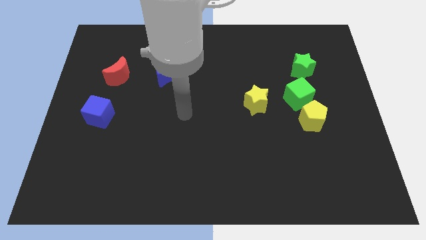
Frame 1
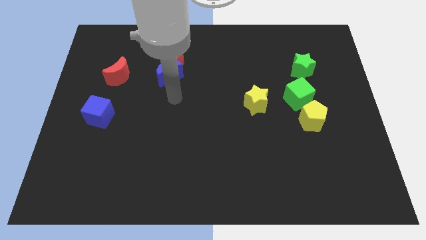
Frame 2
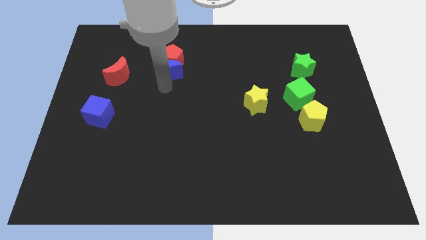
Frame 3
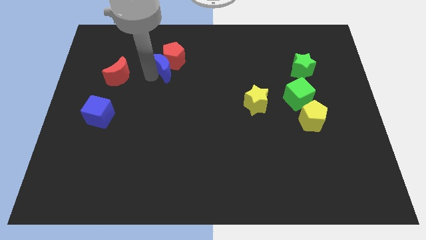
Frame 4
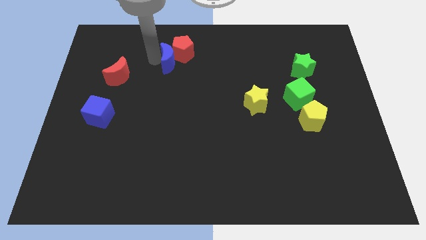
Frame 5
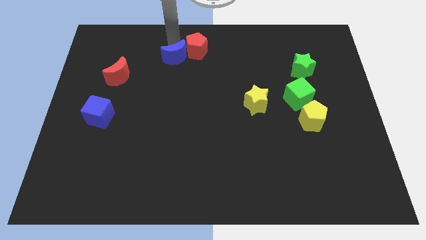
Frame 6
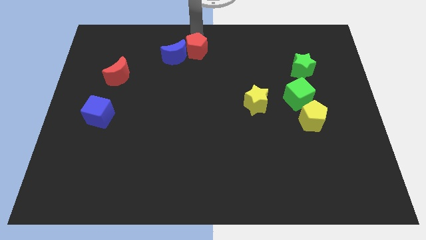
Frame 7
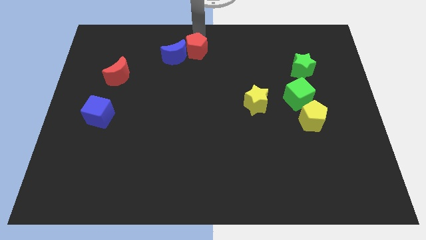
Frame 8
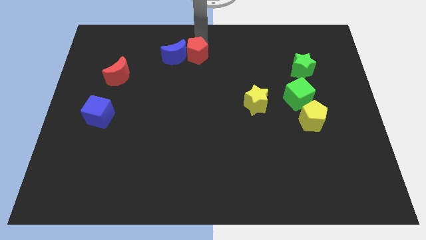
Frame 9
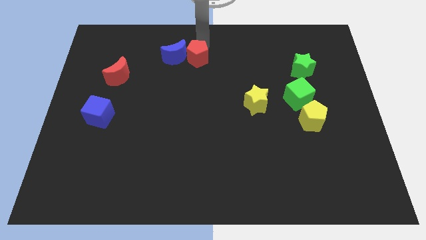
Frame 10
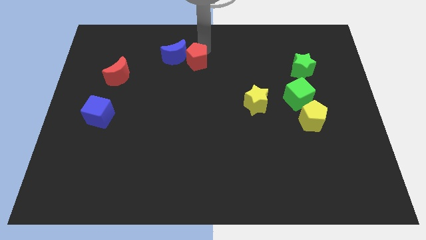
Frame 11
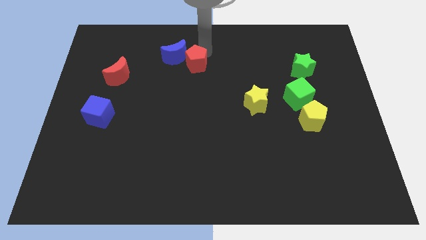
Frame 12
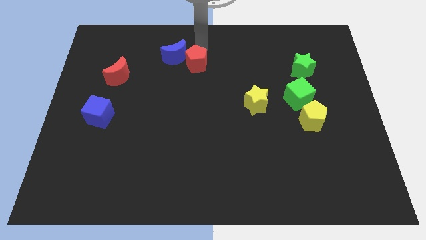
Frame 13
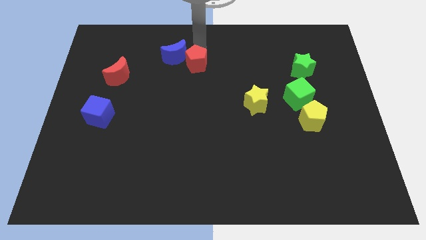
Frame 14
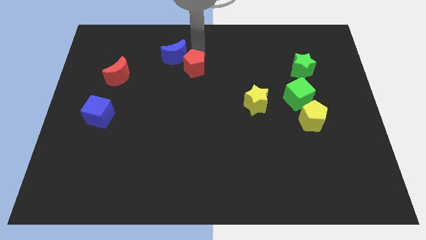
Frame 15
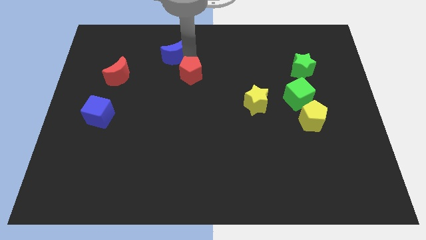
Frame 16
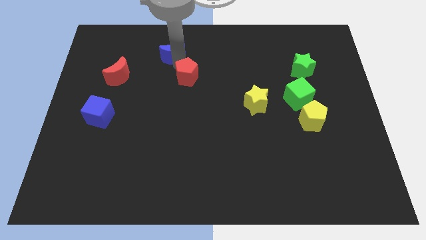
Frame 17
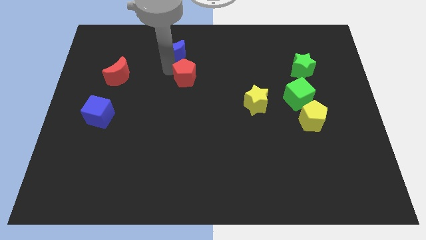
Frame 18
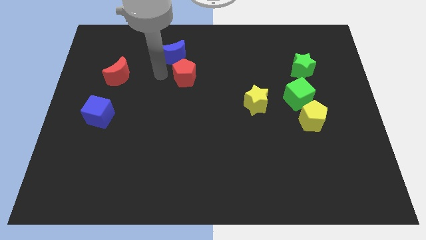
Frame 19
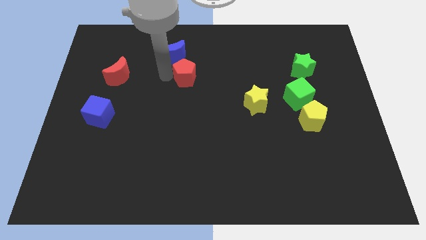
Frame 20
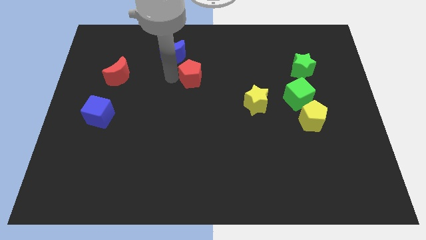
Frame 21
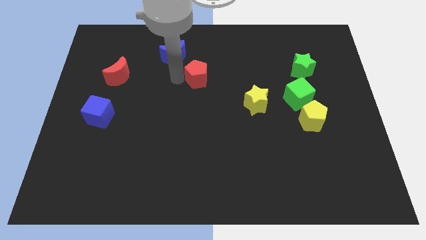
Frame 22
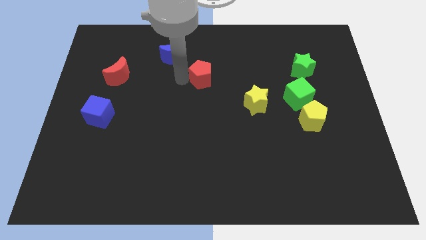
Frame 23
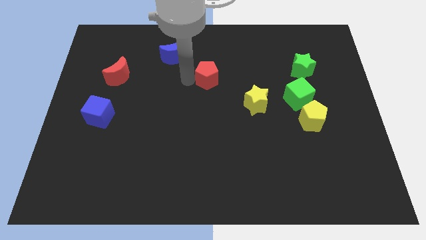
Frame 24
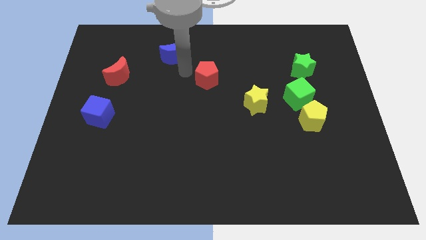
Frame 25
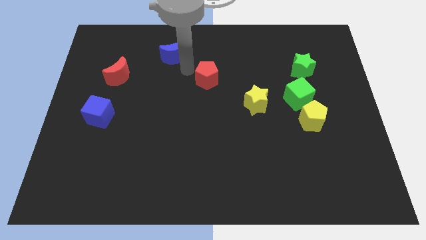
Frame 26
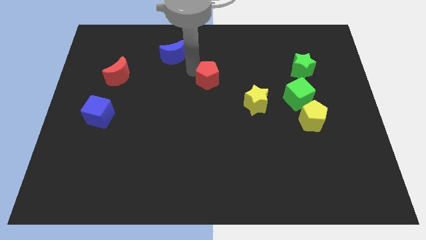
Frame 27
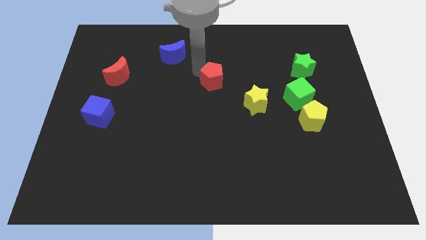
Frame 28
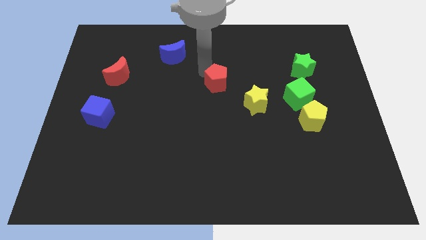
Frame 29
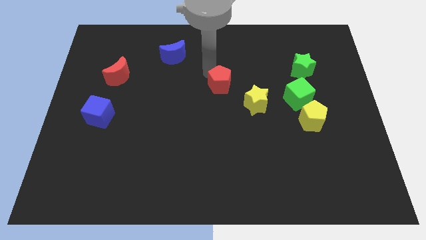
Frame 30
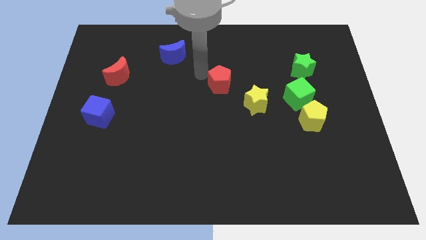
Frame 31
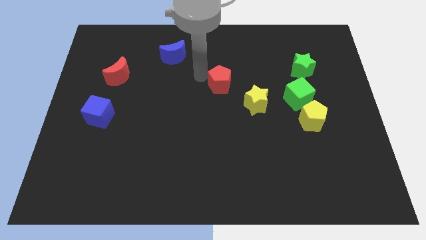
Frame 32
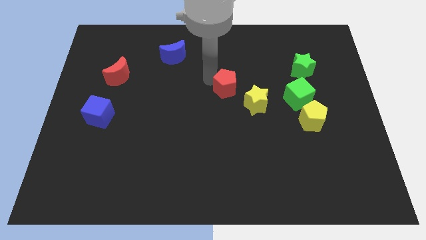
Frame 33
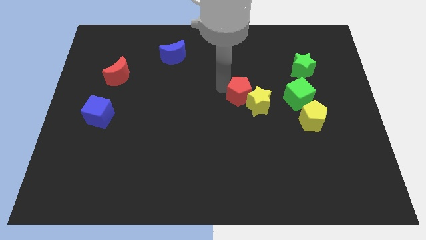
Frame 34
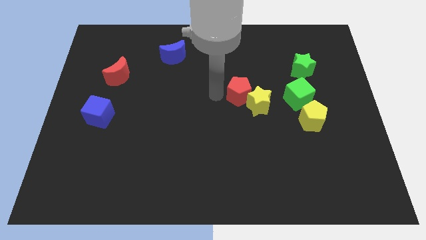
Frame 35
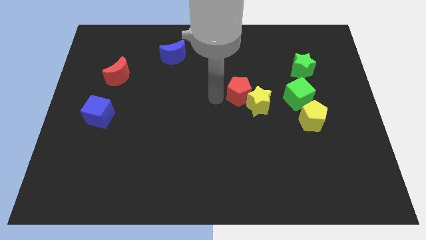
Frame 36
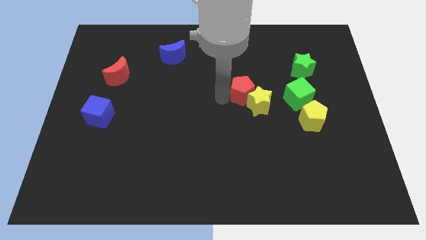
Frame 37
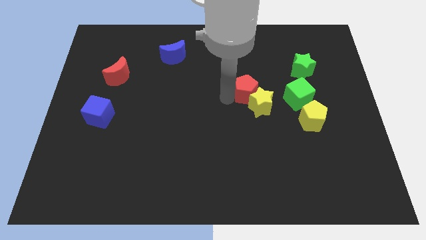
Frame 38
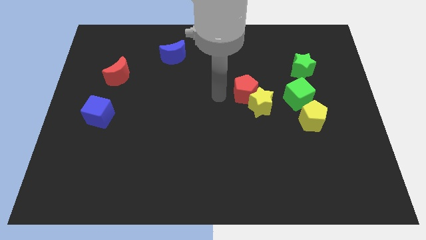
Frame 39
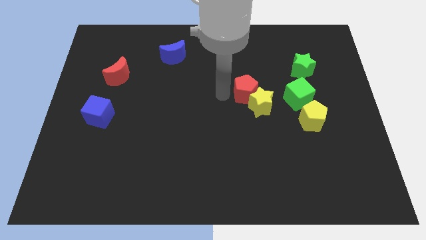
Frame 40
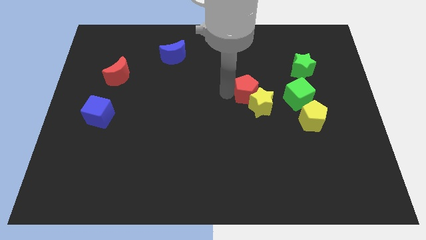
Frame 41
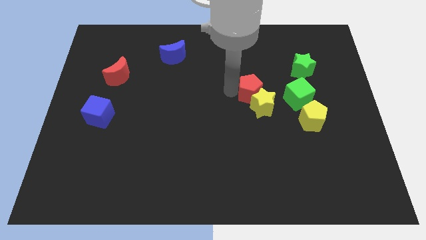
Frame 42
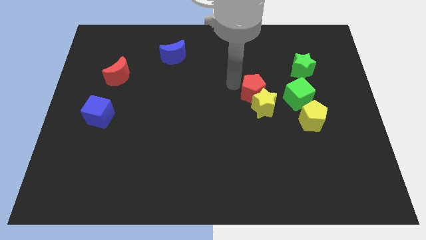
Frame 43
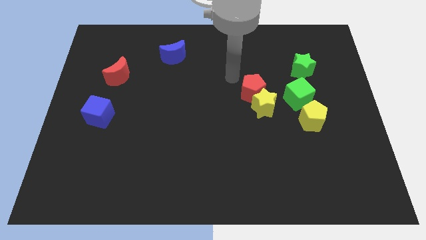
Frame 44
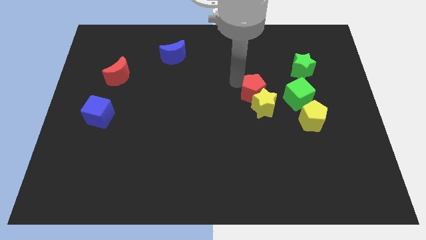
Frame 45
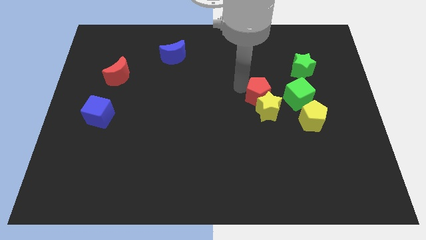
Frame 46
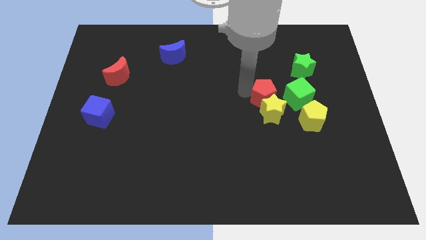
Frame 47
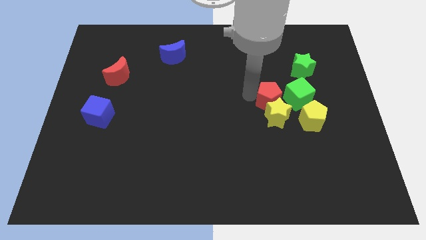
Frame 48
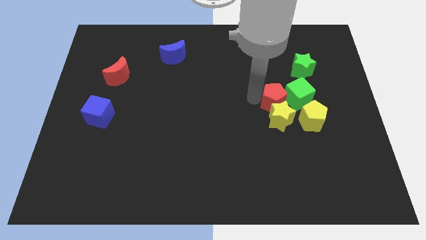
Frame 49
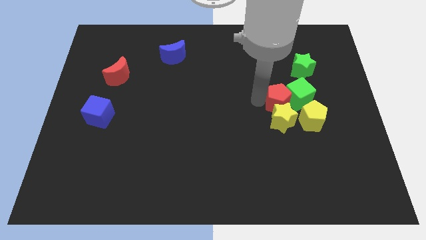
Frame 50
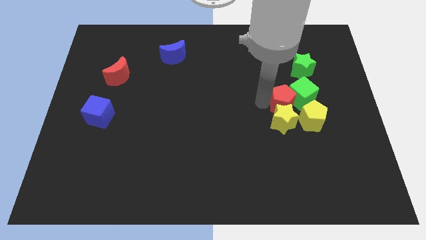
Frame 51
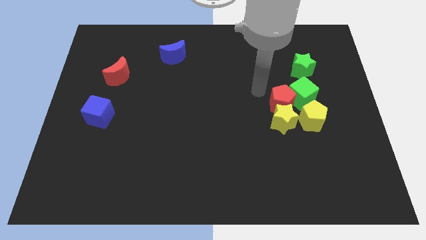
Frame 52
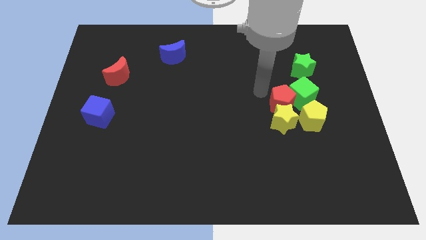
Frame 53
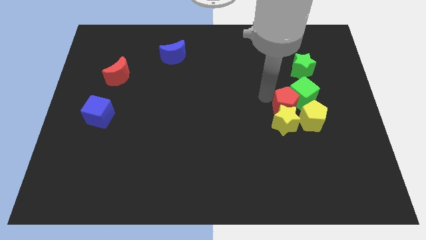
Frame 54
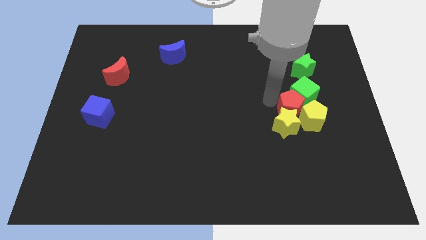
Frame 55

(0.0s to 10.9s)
push the red pentagon close to the yellow pentagon

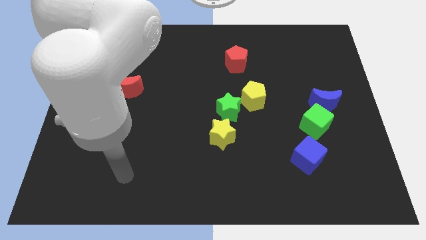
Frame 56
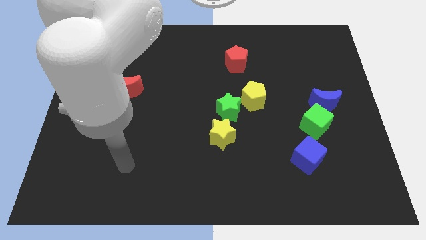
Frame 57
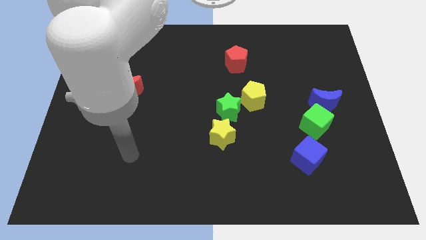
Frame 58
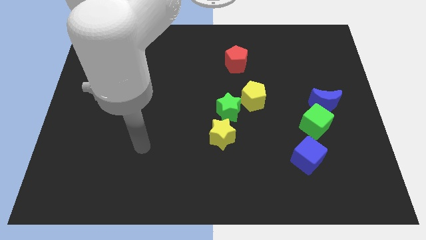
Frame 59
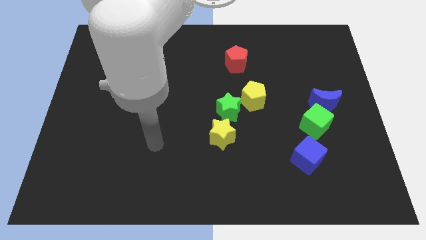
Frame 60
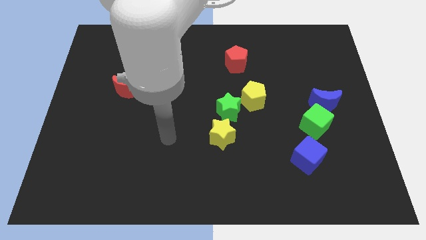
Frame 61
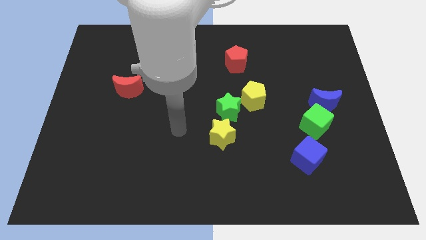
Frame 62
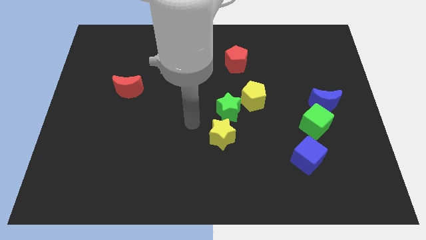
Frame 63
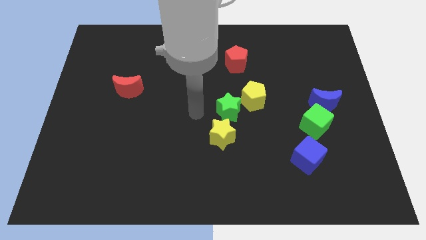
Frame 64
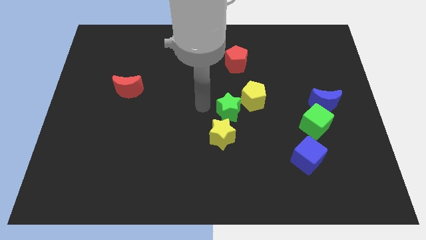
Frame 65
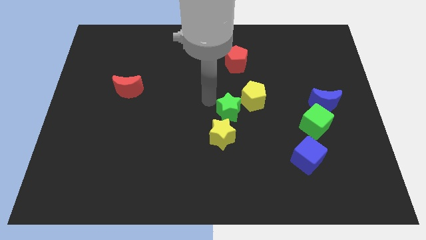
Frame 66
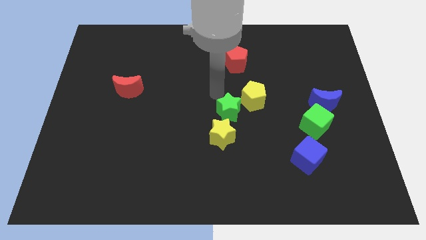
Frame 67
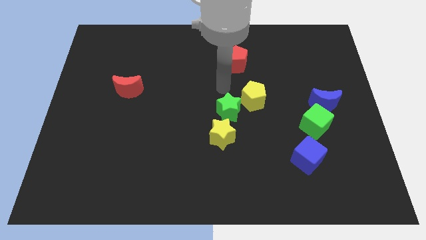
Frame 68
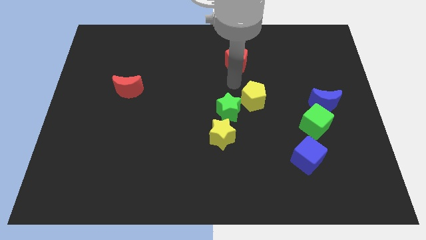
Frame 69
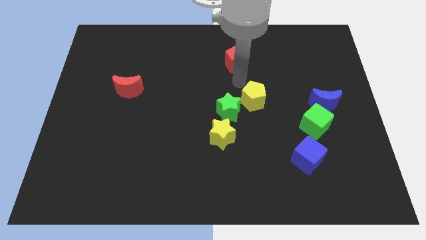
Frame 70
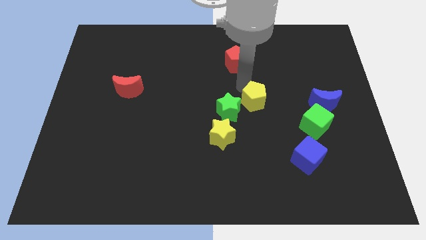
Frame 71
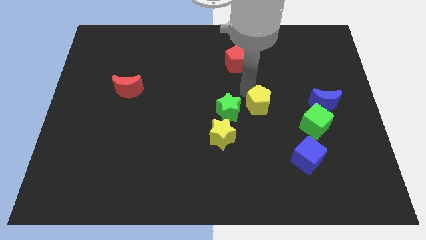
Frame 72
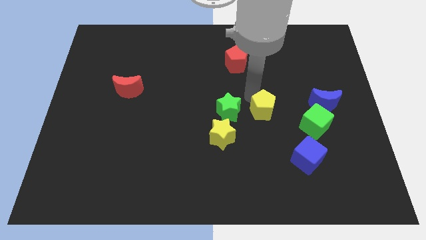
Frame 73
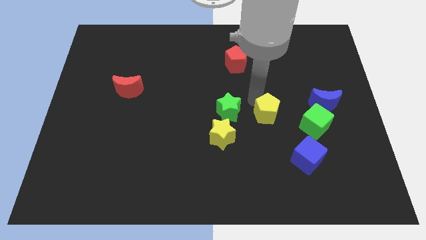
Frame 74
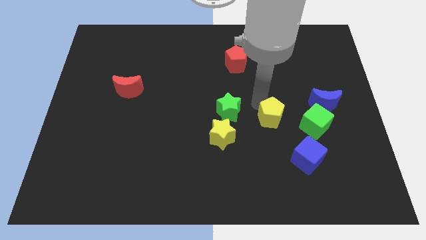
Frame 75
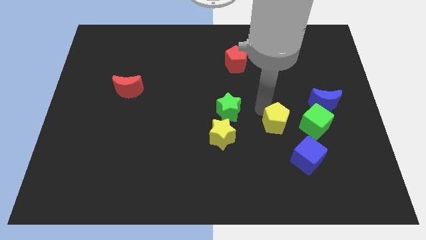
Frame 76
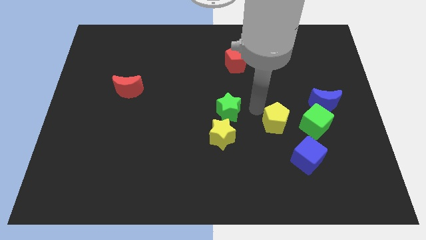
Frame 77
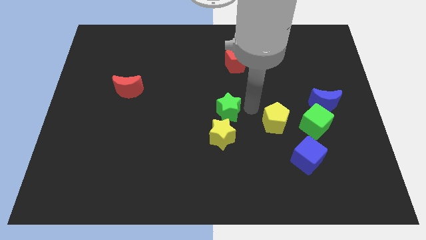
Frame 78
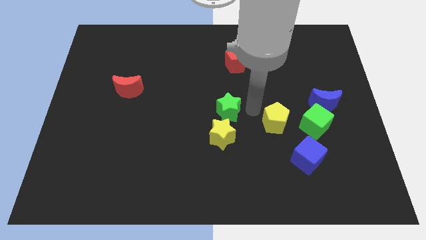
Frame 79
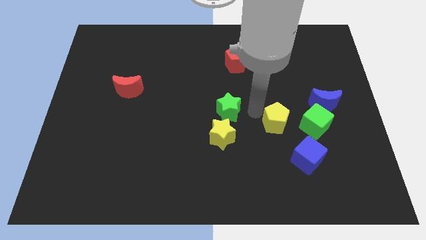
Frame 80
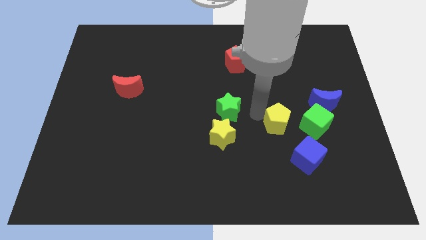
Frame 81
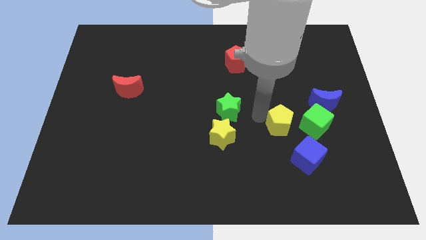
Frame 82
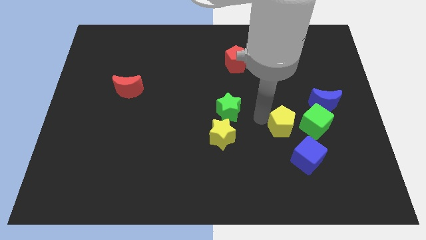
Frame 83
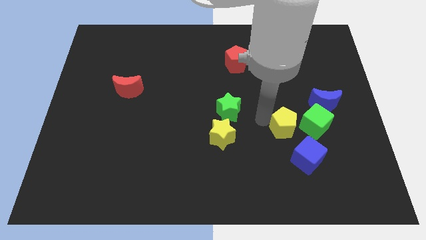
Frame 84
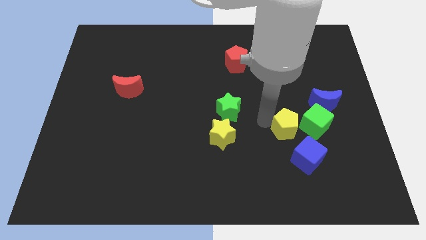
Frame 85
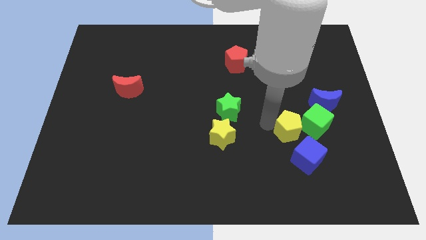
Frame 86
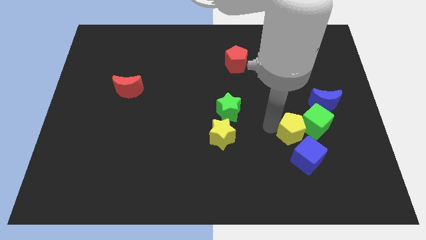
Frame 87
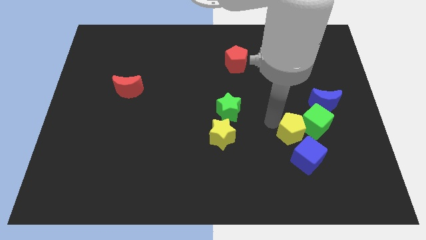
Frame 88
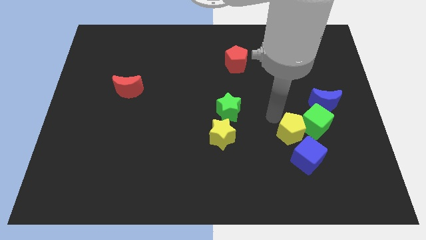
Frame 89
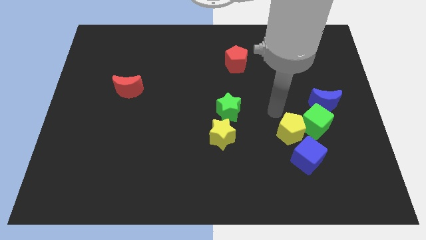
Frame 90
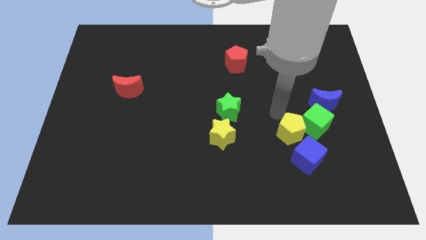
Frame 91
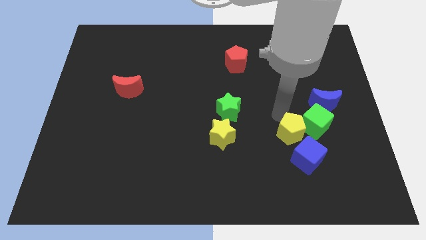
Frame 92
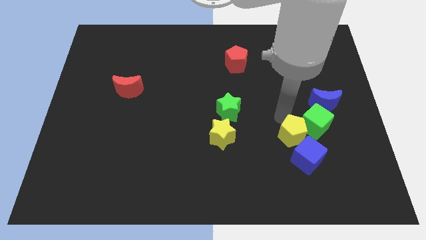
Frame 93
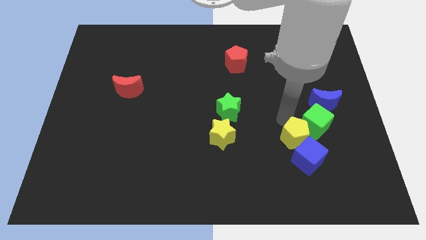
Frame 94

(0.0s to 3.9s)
put the yellow pentagon towards the blue cube
